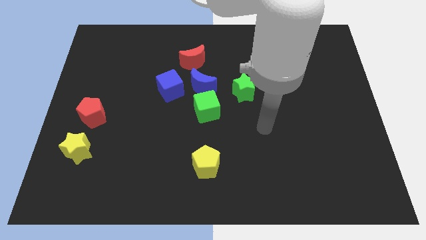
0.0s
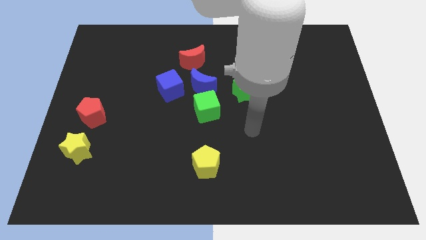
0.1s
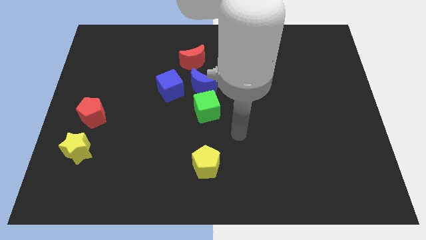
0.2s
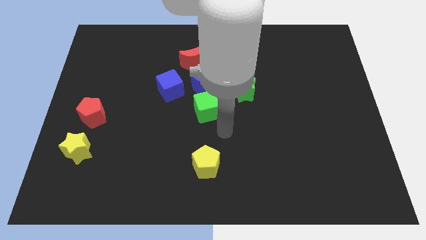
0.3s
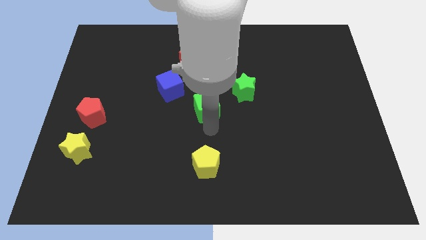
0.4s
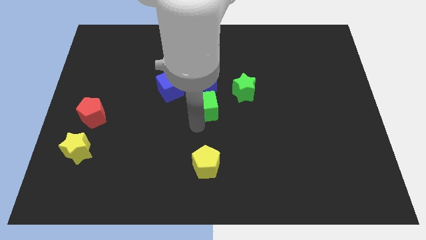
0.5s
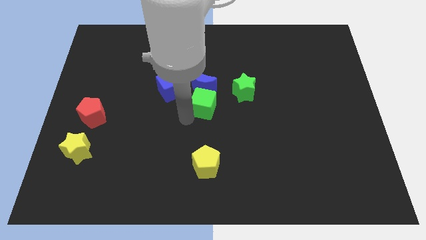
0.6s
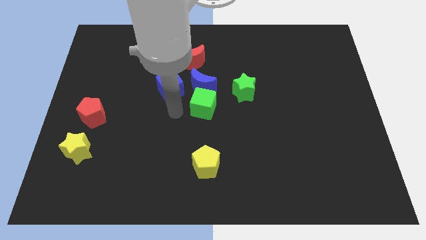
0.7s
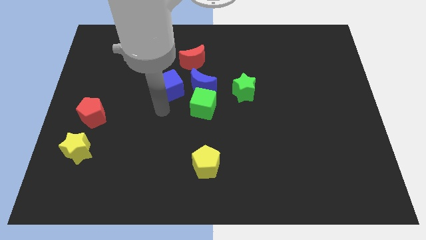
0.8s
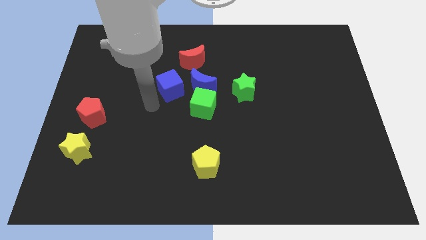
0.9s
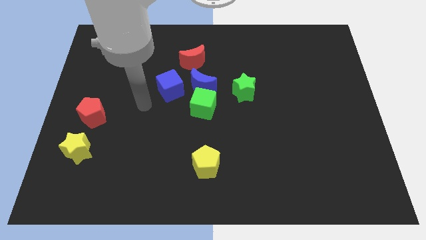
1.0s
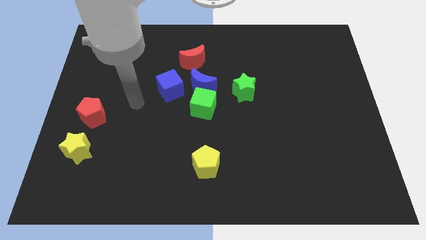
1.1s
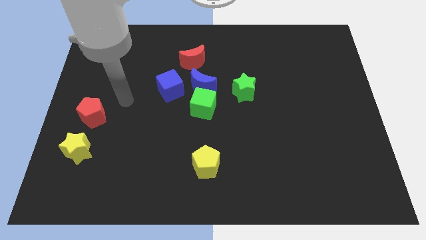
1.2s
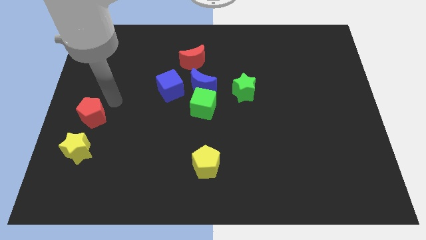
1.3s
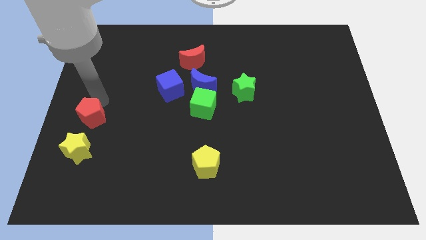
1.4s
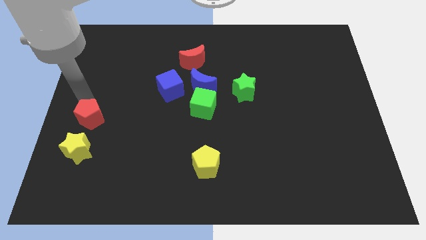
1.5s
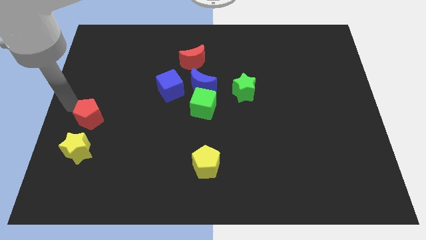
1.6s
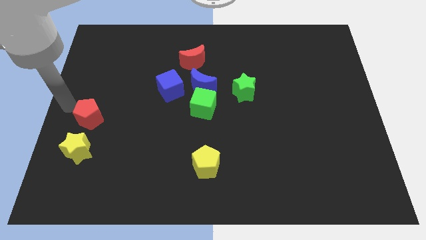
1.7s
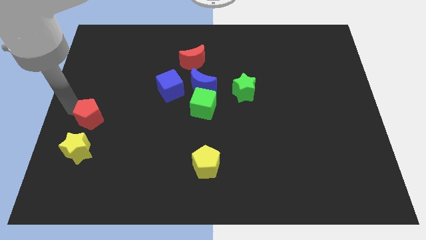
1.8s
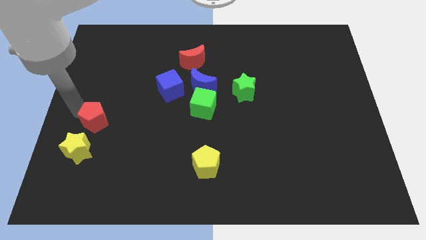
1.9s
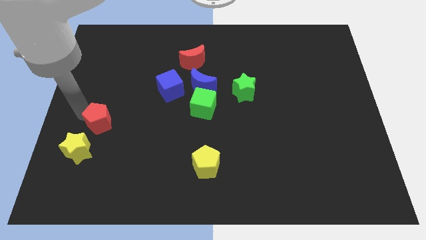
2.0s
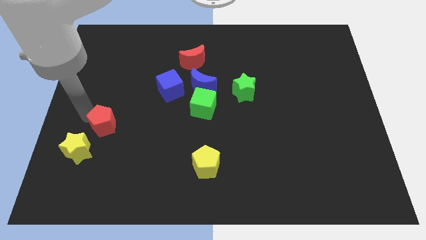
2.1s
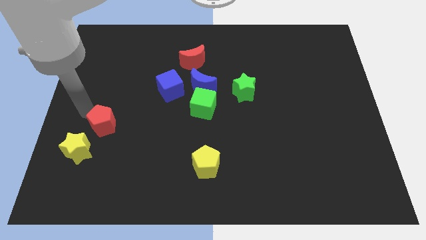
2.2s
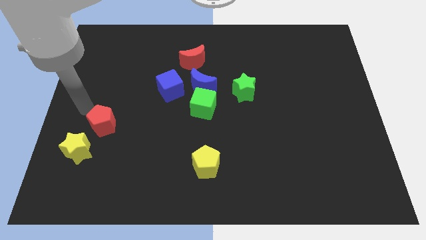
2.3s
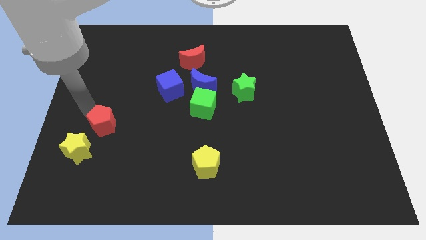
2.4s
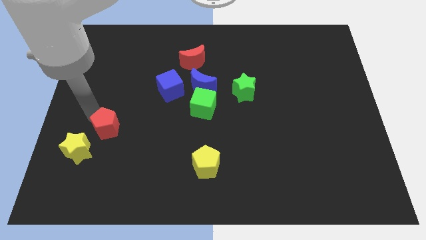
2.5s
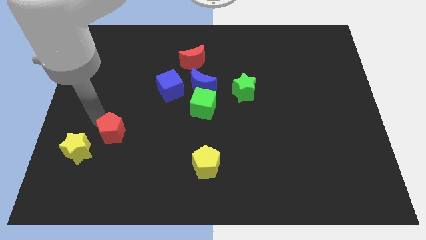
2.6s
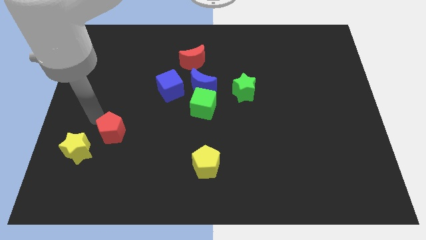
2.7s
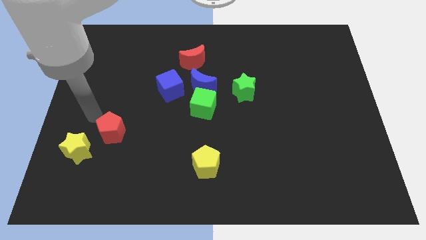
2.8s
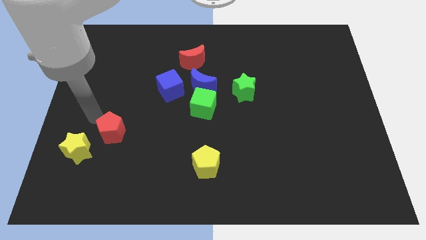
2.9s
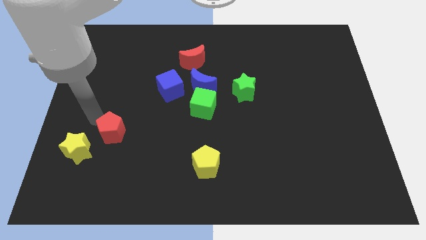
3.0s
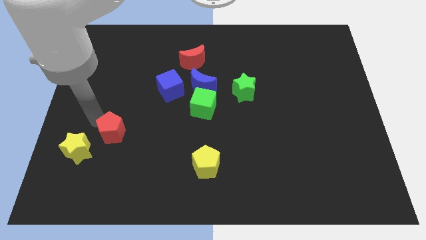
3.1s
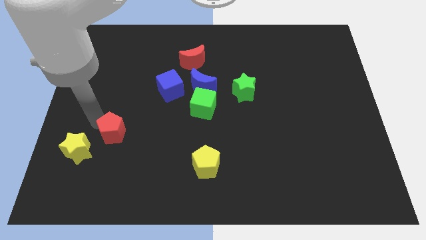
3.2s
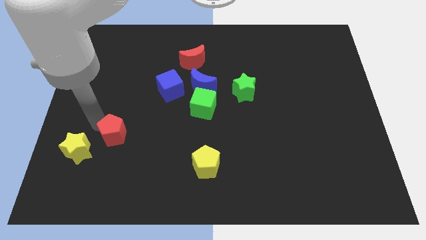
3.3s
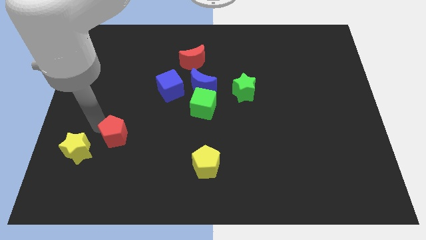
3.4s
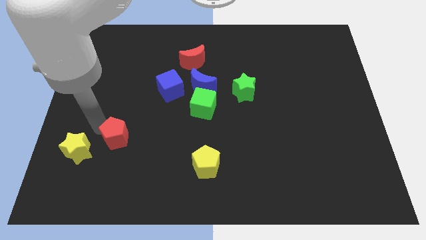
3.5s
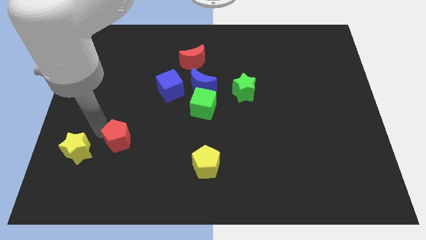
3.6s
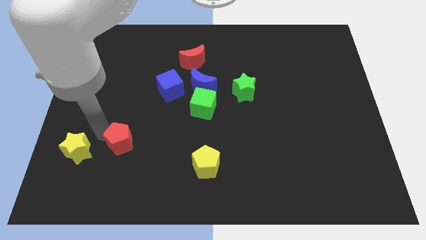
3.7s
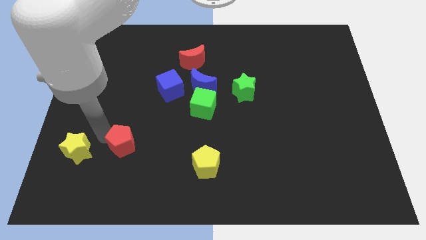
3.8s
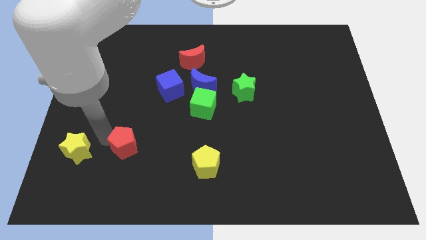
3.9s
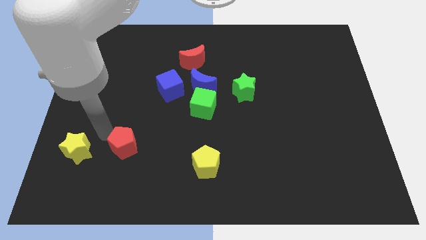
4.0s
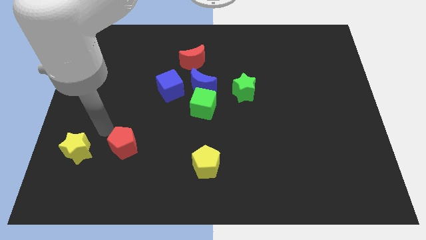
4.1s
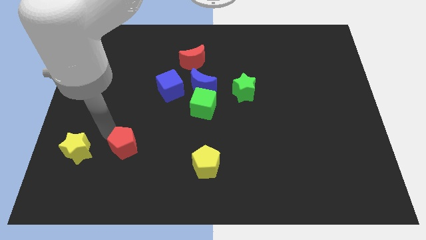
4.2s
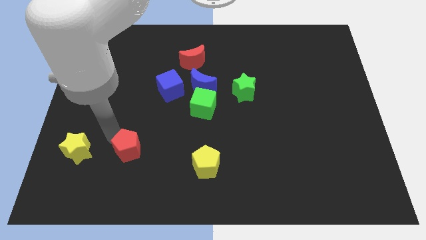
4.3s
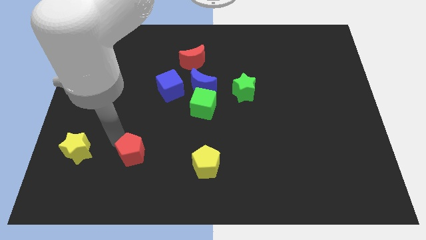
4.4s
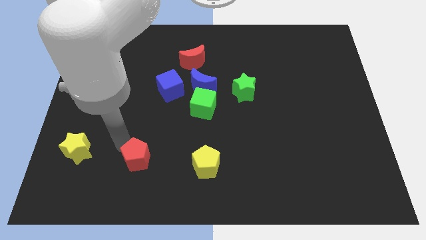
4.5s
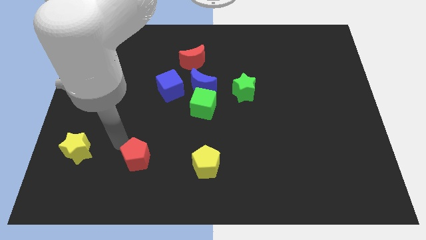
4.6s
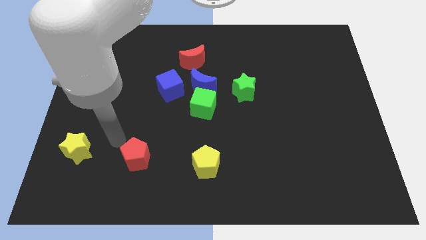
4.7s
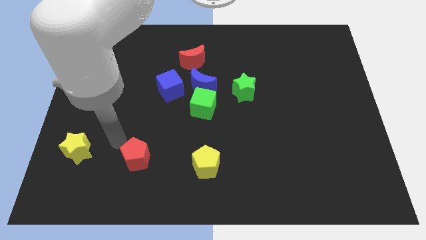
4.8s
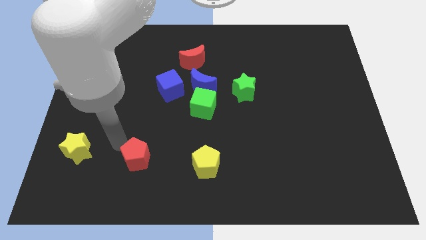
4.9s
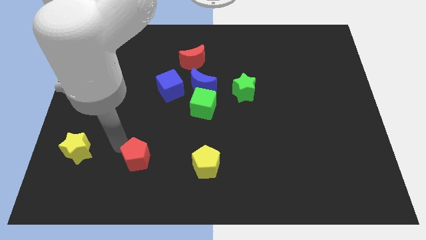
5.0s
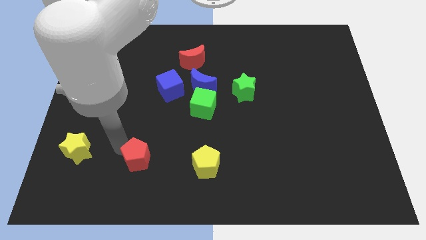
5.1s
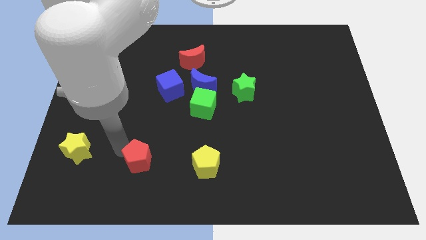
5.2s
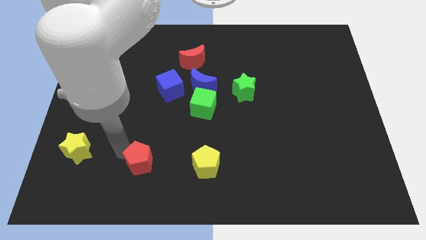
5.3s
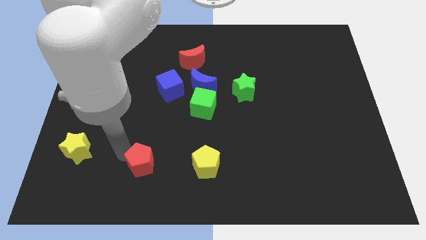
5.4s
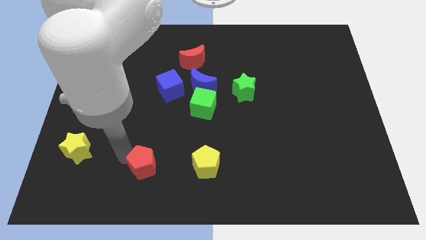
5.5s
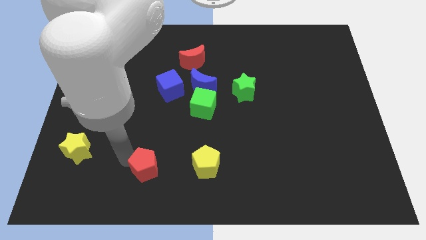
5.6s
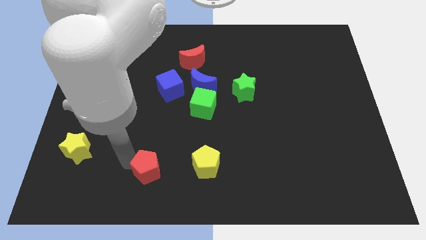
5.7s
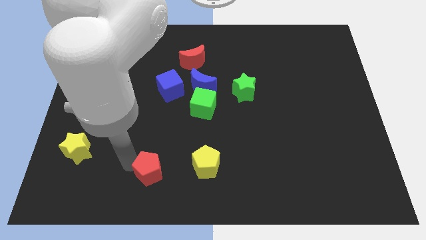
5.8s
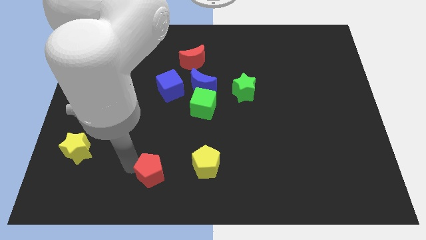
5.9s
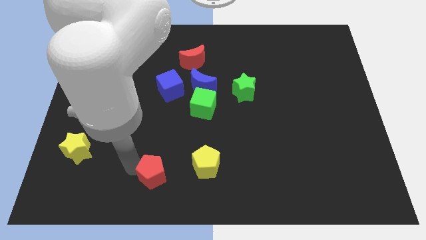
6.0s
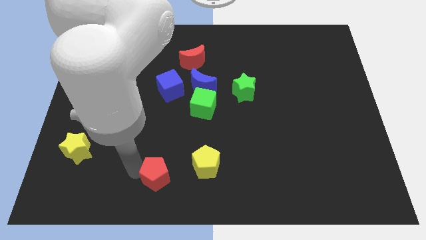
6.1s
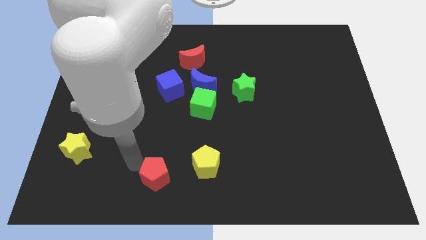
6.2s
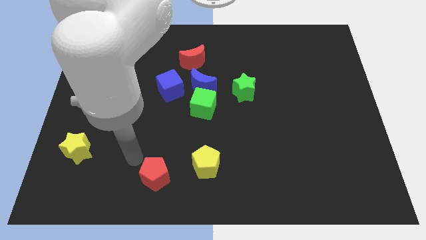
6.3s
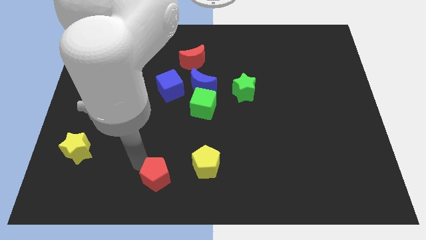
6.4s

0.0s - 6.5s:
slide the red pentagon to the bottom side
